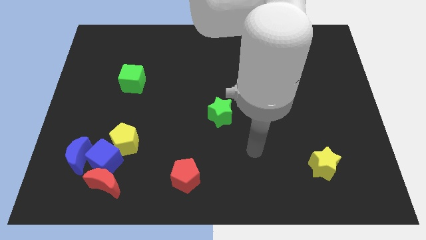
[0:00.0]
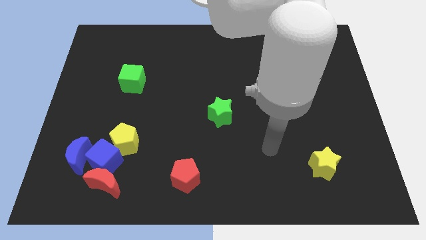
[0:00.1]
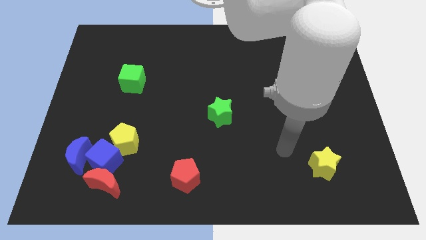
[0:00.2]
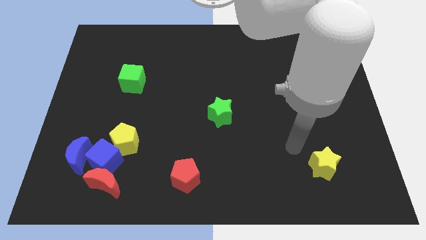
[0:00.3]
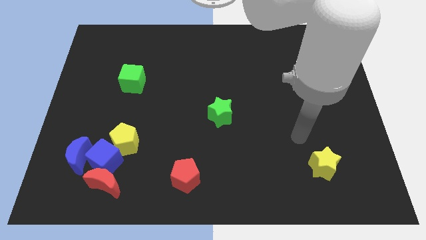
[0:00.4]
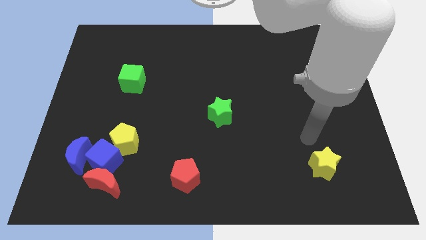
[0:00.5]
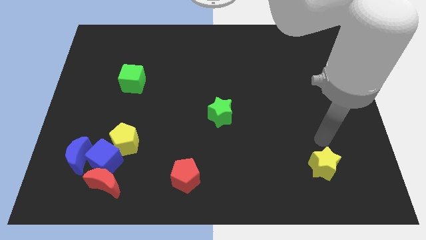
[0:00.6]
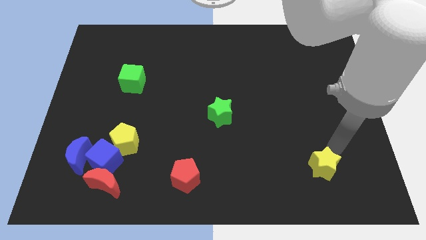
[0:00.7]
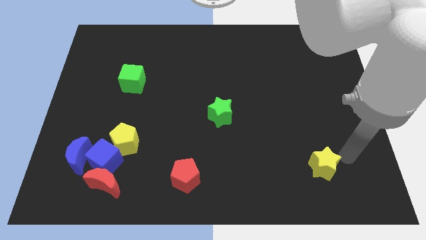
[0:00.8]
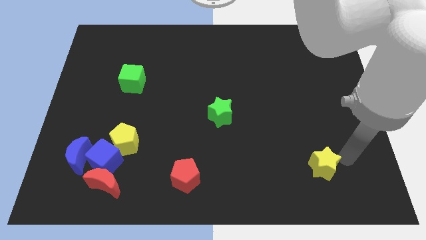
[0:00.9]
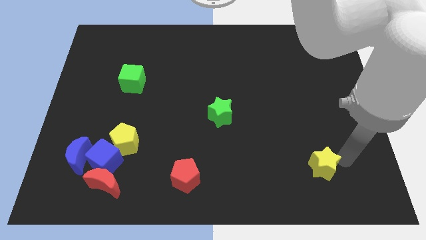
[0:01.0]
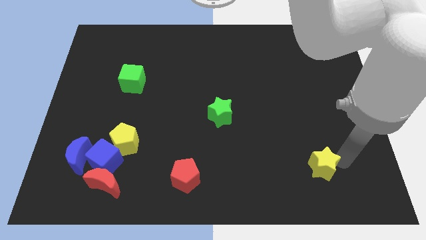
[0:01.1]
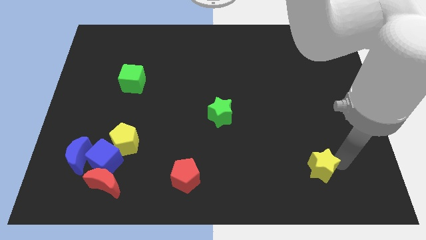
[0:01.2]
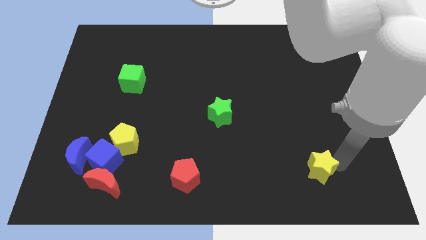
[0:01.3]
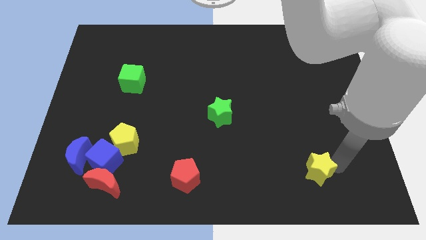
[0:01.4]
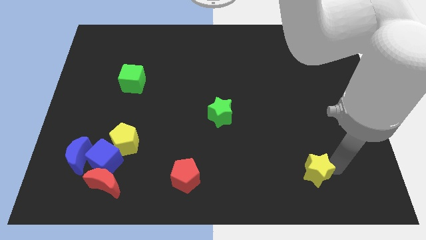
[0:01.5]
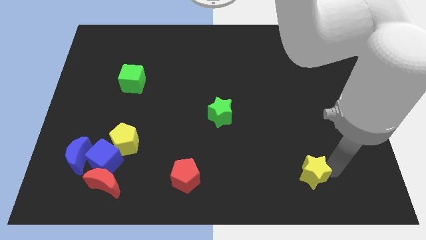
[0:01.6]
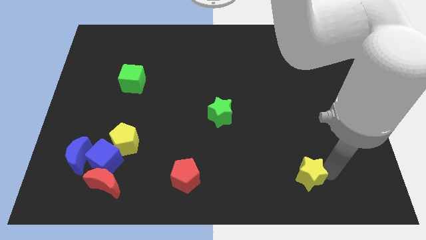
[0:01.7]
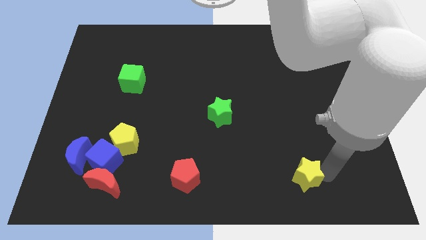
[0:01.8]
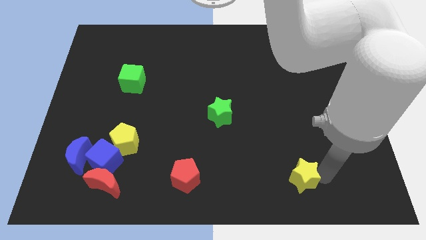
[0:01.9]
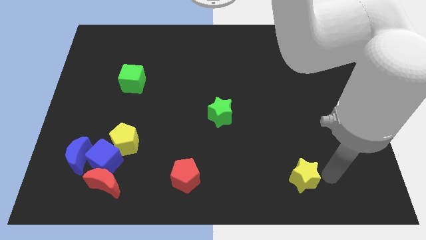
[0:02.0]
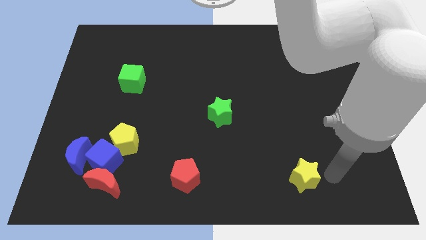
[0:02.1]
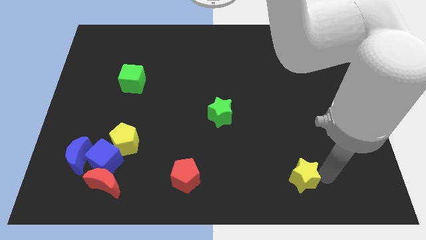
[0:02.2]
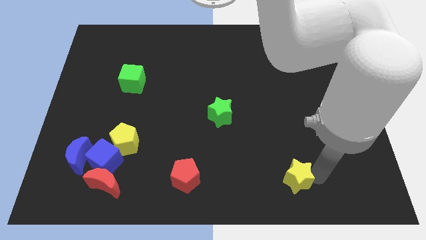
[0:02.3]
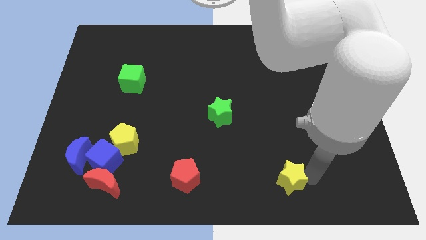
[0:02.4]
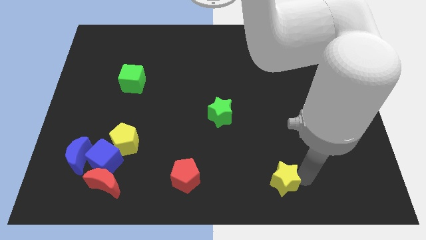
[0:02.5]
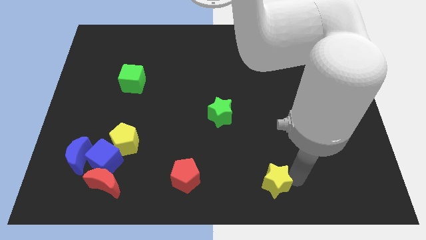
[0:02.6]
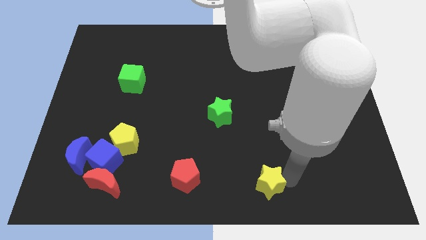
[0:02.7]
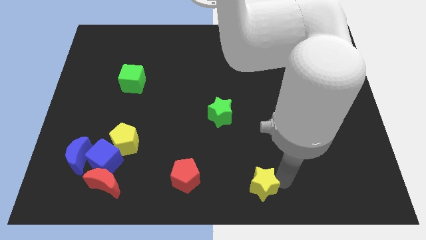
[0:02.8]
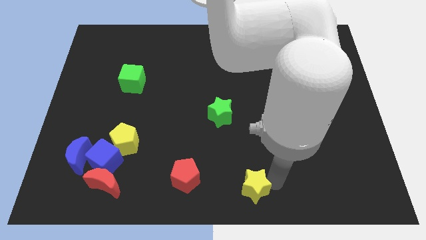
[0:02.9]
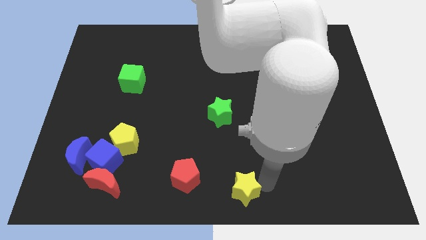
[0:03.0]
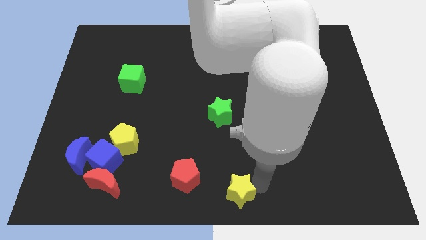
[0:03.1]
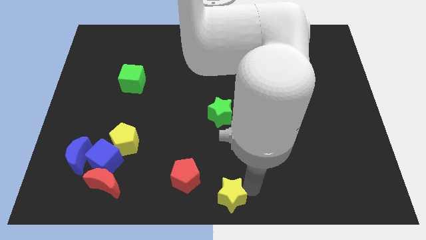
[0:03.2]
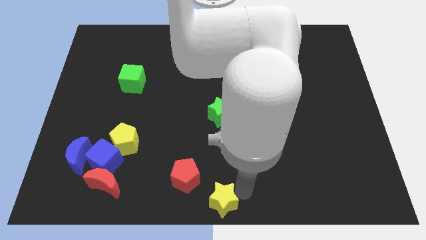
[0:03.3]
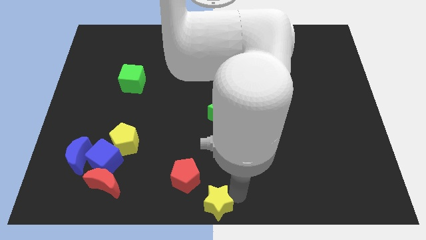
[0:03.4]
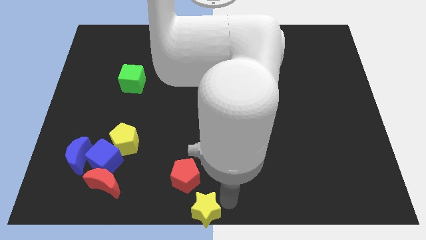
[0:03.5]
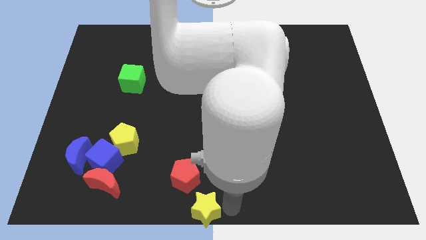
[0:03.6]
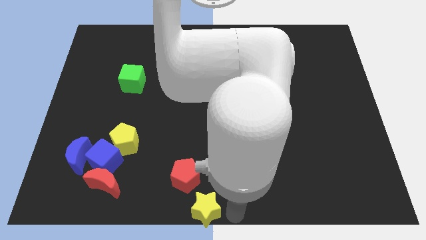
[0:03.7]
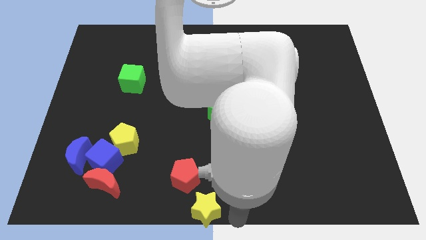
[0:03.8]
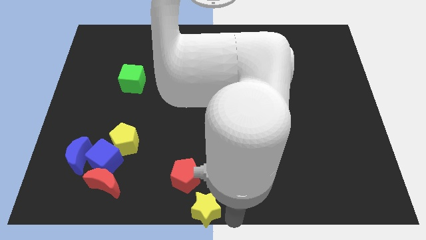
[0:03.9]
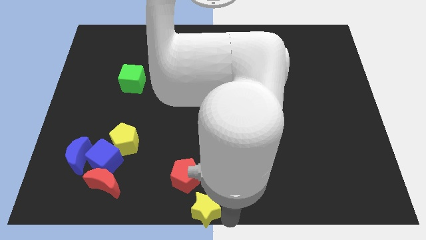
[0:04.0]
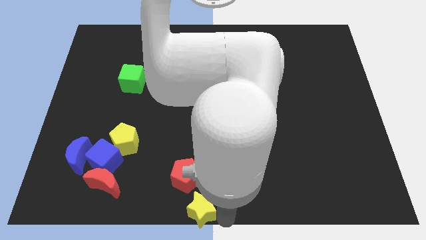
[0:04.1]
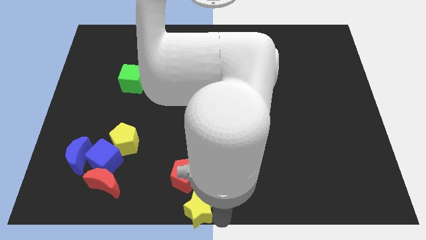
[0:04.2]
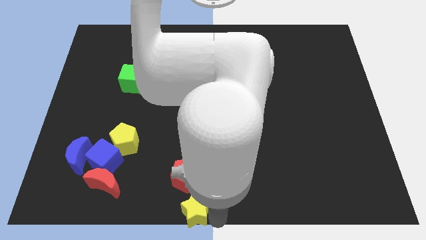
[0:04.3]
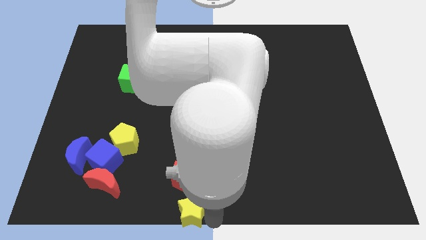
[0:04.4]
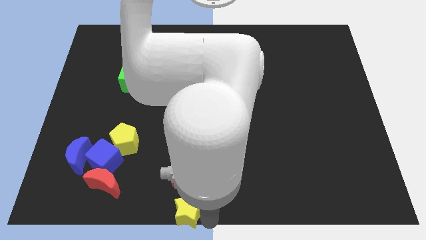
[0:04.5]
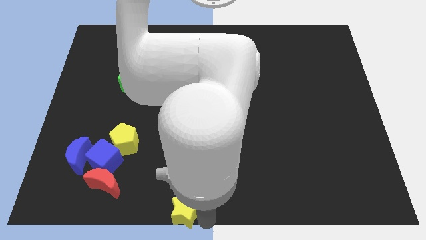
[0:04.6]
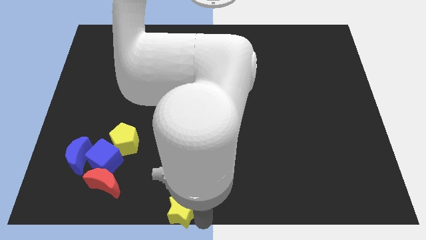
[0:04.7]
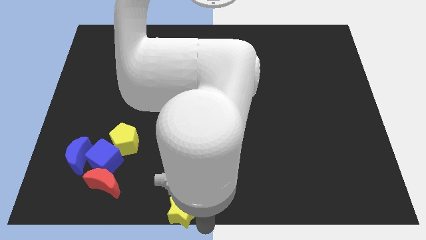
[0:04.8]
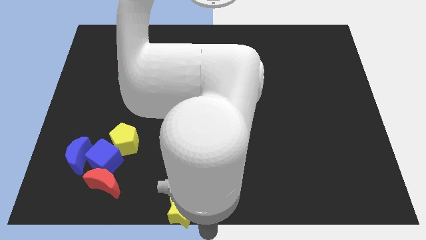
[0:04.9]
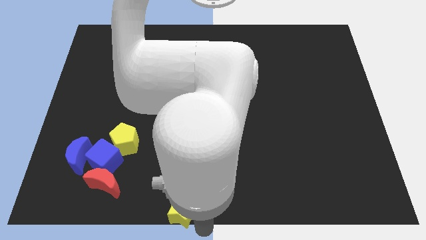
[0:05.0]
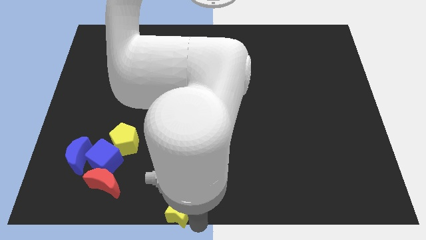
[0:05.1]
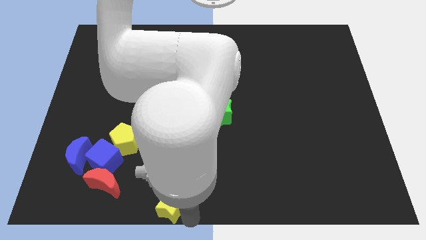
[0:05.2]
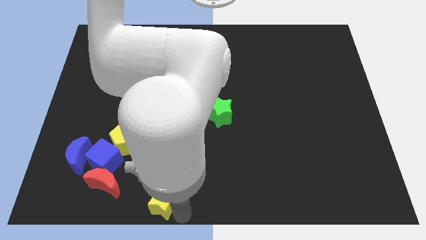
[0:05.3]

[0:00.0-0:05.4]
slide the yellow star right of the red moon

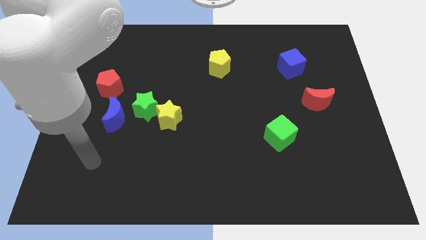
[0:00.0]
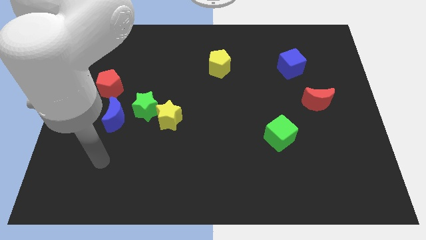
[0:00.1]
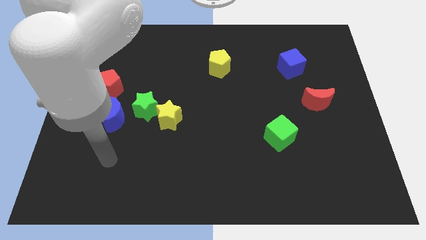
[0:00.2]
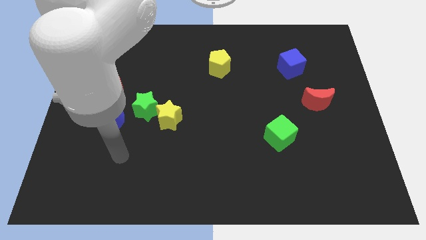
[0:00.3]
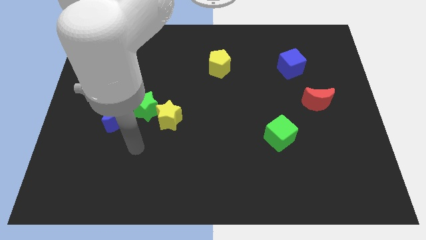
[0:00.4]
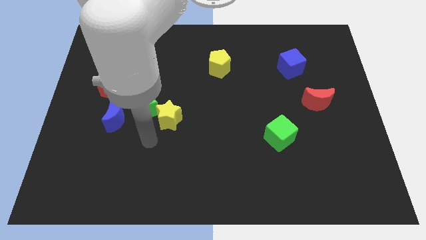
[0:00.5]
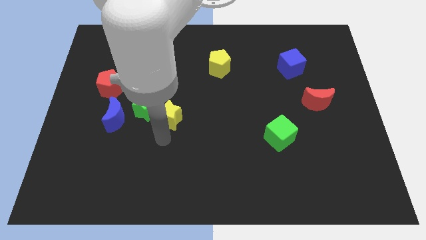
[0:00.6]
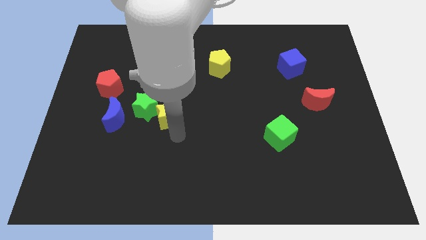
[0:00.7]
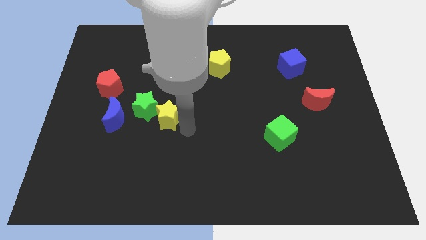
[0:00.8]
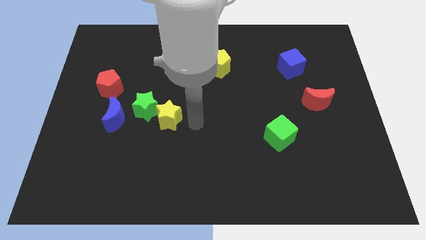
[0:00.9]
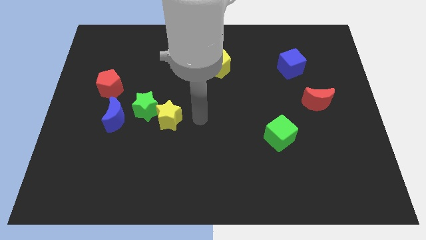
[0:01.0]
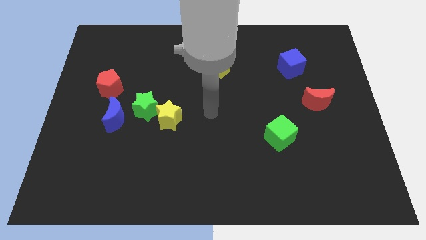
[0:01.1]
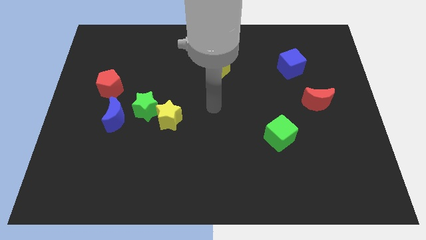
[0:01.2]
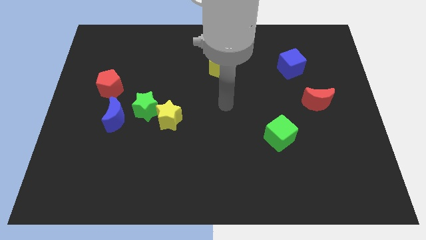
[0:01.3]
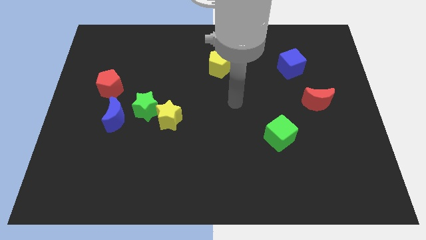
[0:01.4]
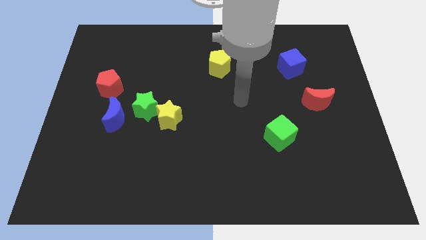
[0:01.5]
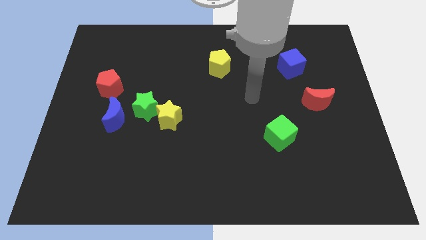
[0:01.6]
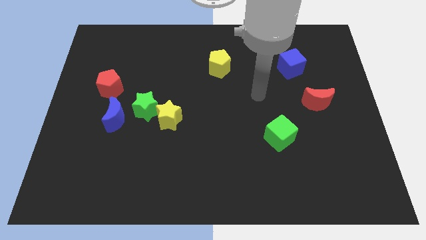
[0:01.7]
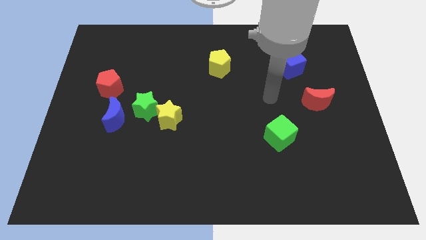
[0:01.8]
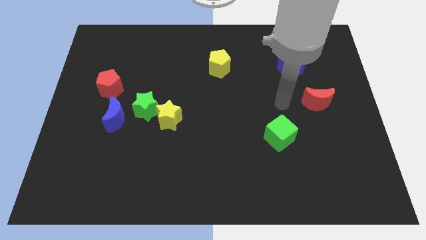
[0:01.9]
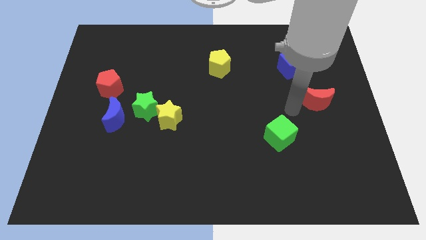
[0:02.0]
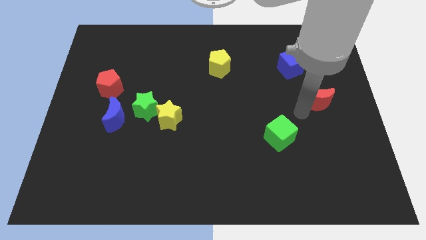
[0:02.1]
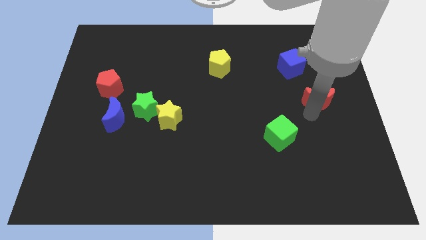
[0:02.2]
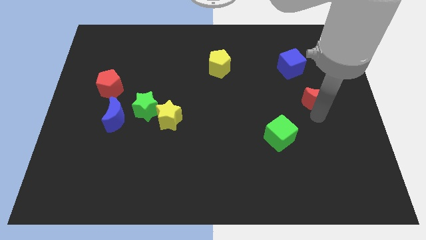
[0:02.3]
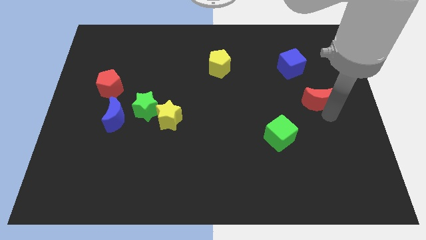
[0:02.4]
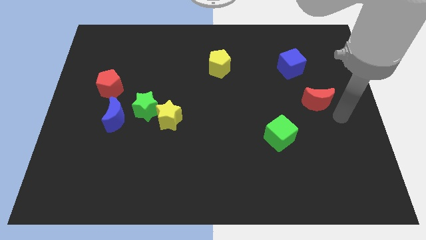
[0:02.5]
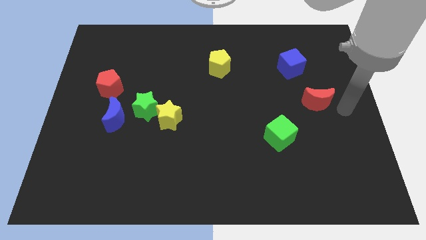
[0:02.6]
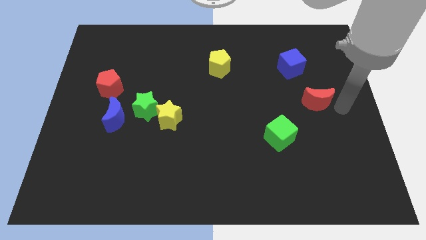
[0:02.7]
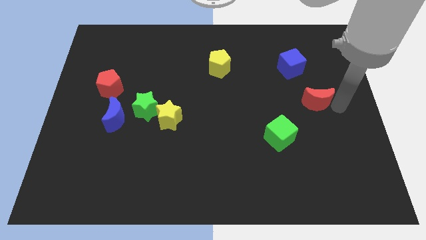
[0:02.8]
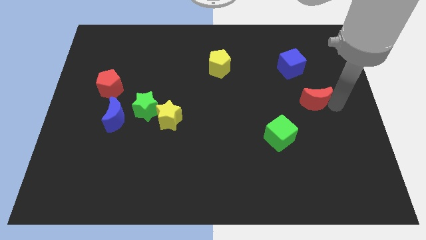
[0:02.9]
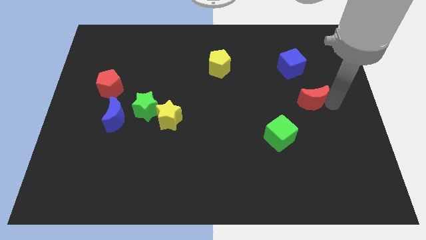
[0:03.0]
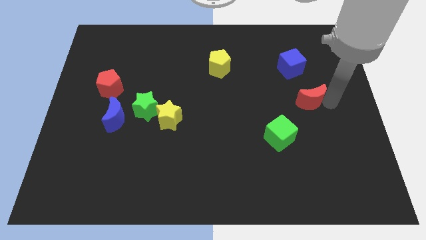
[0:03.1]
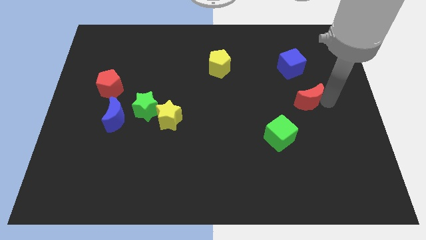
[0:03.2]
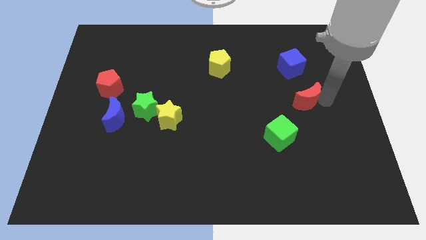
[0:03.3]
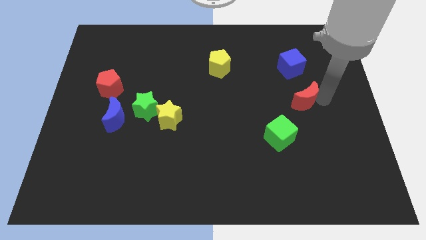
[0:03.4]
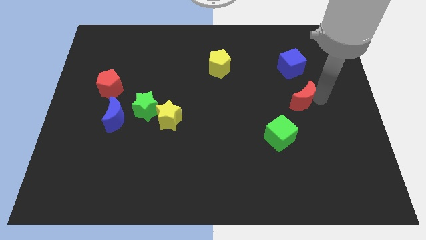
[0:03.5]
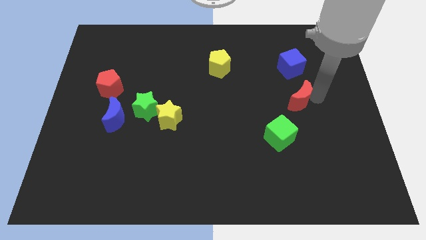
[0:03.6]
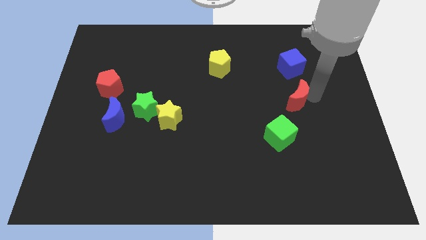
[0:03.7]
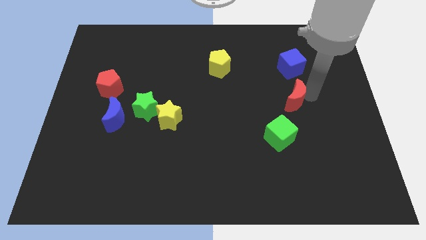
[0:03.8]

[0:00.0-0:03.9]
put the red moon to the top side of the green cube
